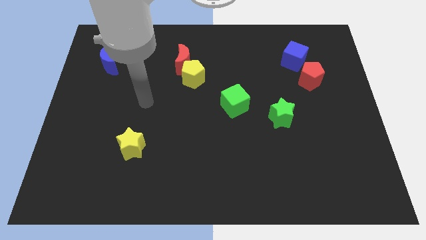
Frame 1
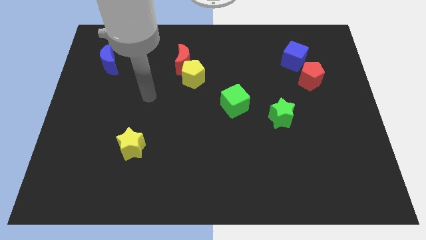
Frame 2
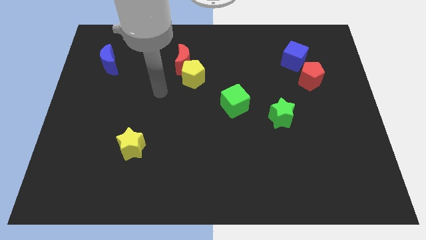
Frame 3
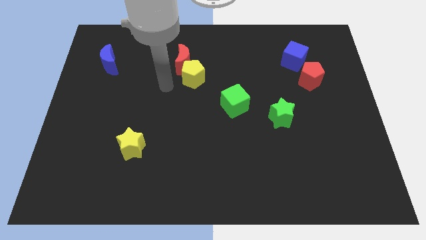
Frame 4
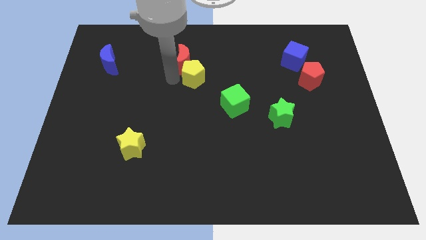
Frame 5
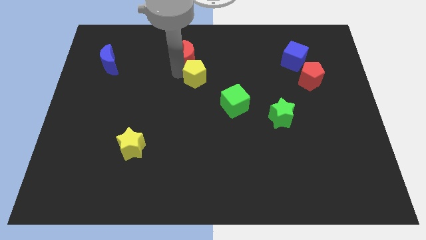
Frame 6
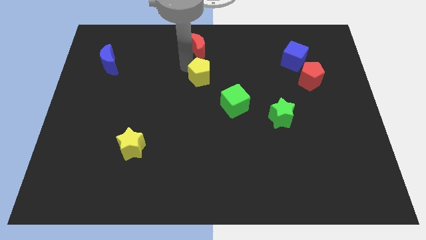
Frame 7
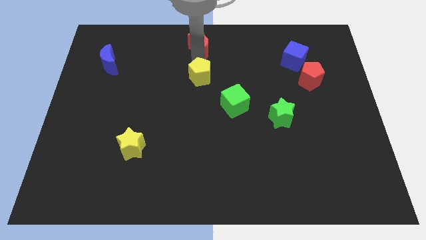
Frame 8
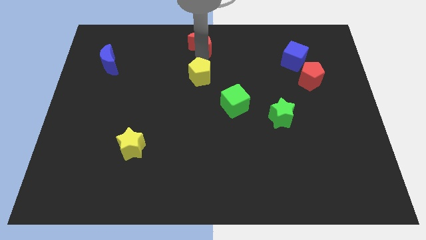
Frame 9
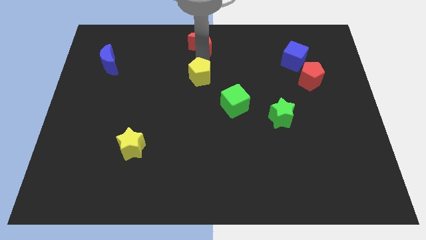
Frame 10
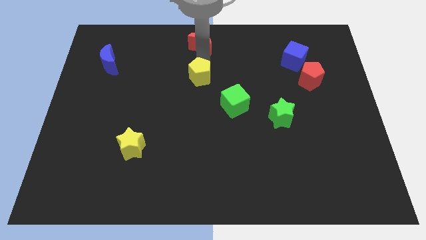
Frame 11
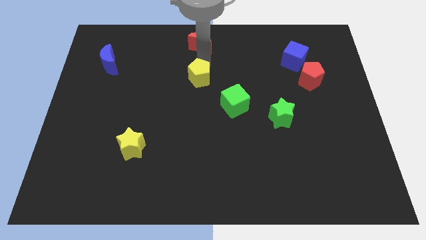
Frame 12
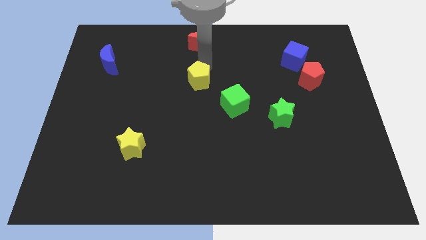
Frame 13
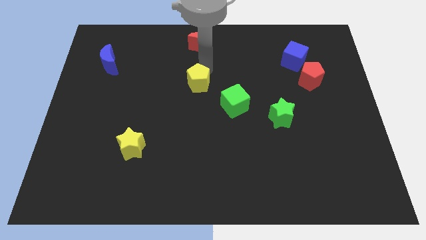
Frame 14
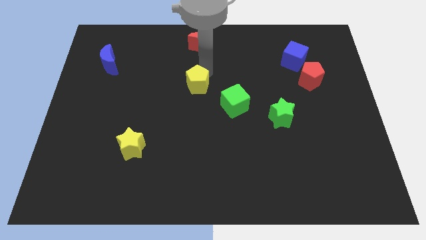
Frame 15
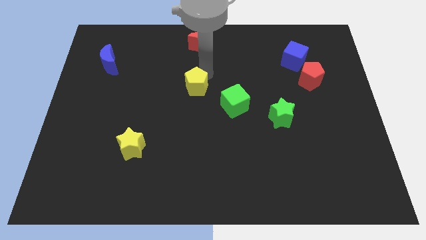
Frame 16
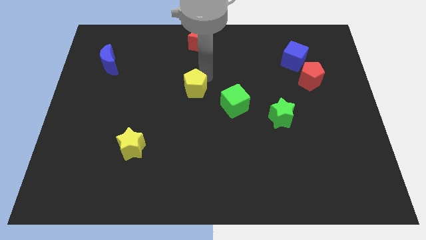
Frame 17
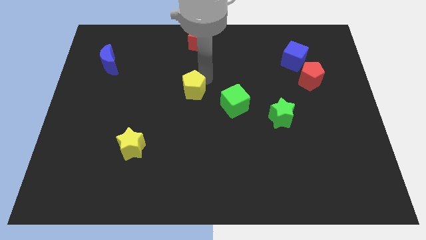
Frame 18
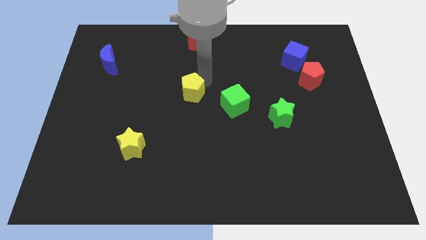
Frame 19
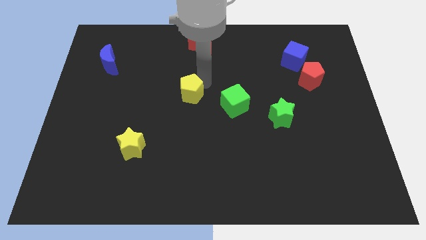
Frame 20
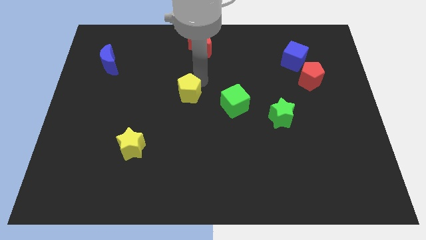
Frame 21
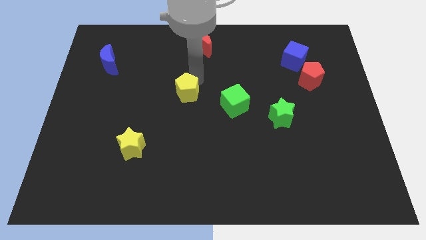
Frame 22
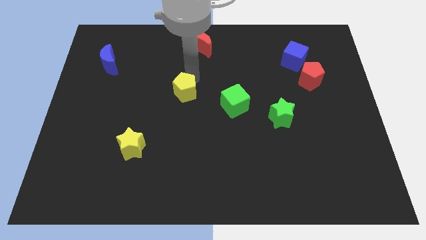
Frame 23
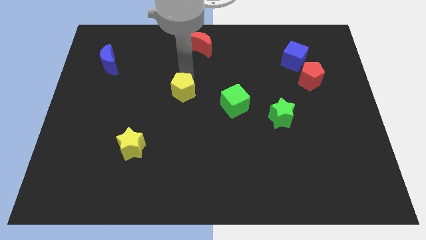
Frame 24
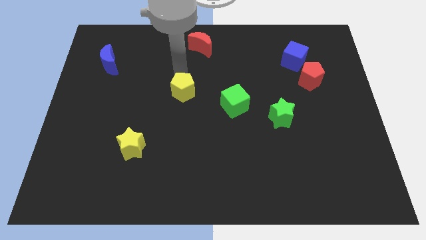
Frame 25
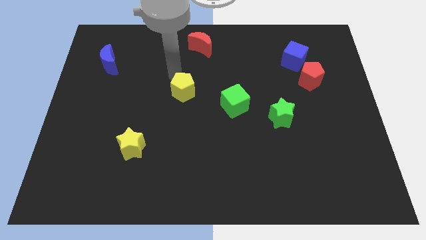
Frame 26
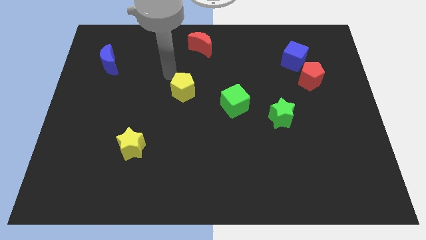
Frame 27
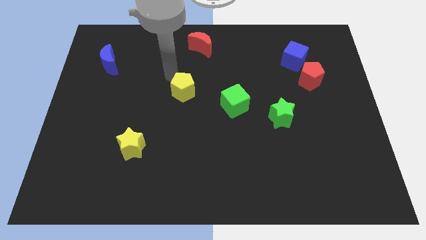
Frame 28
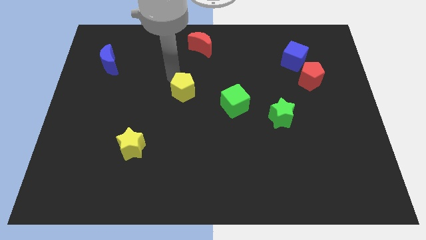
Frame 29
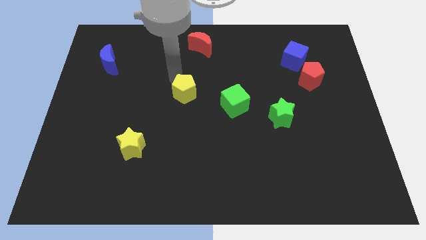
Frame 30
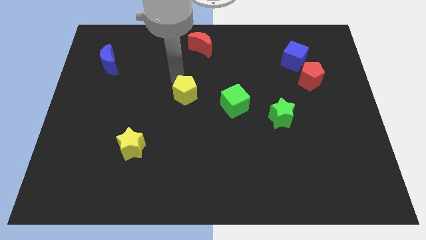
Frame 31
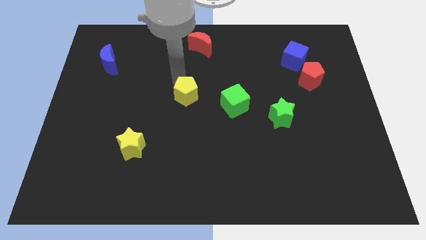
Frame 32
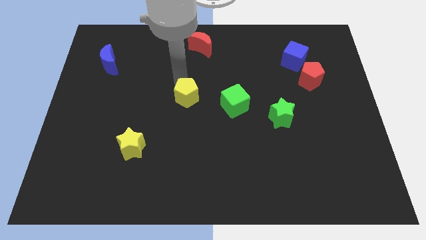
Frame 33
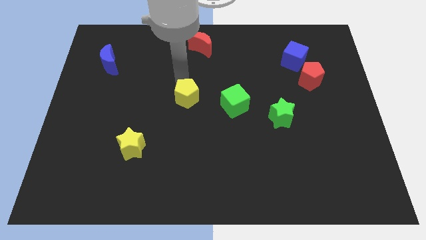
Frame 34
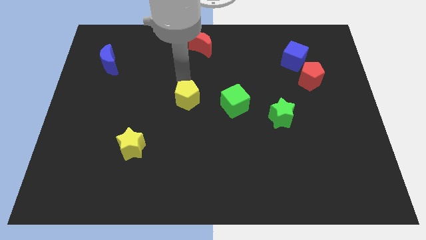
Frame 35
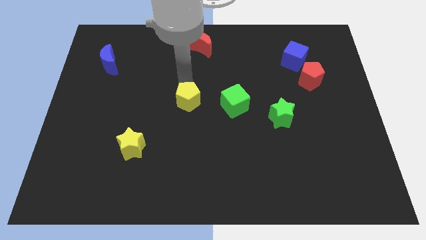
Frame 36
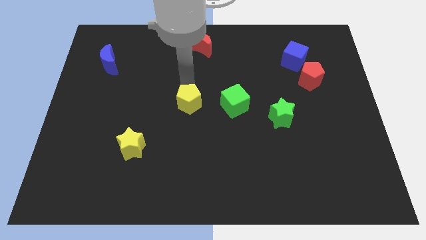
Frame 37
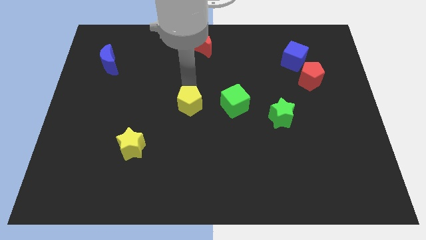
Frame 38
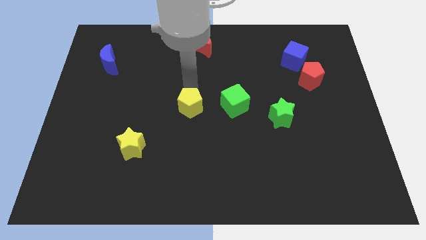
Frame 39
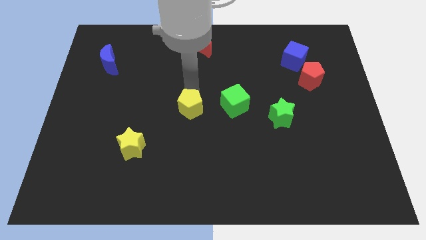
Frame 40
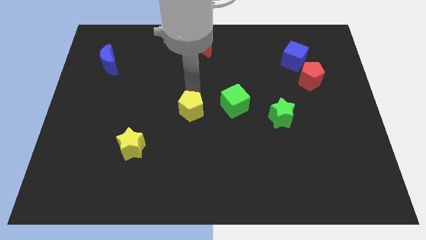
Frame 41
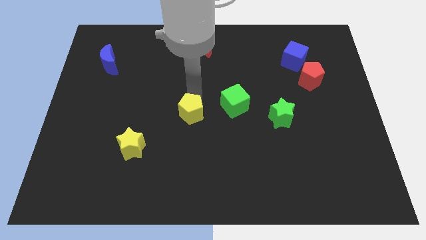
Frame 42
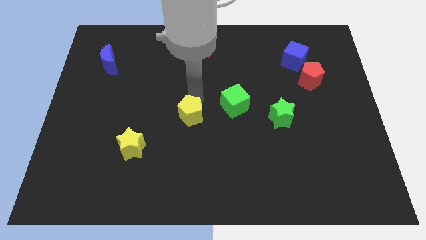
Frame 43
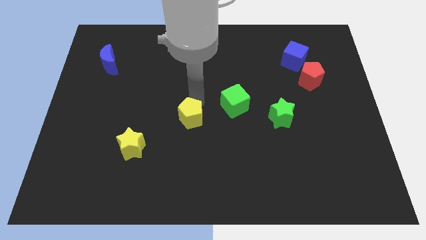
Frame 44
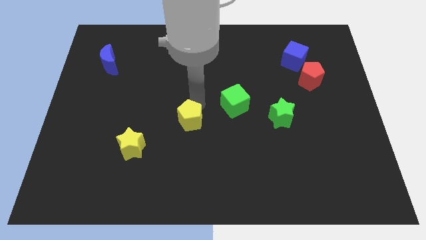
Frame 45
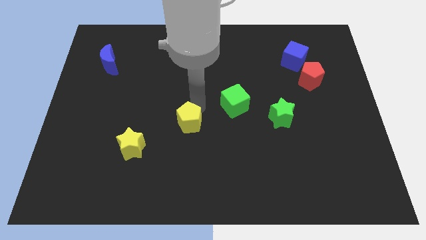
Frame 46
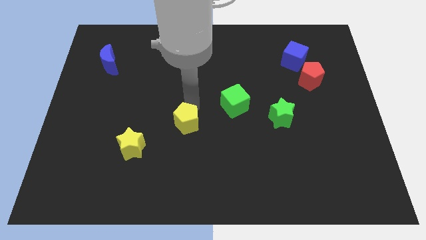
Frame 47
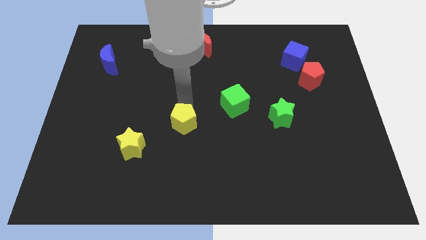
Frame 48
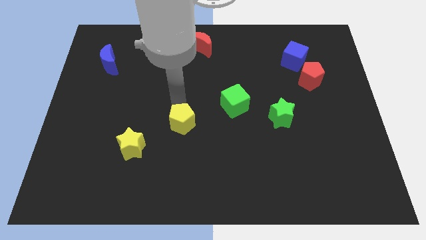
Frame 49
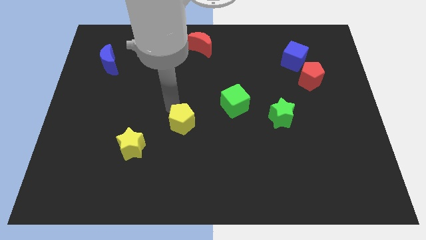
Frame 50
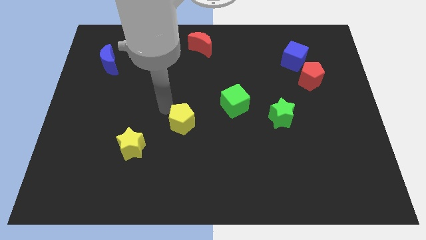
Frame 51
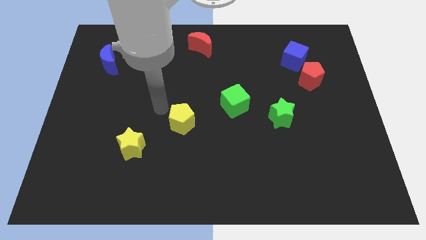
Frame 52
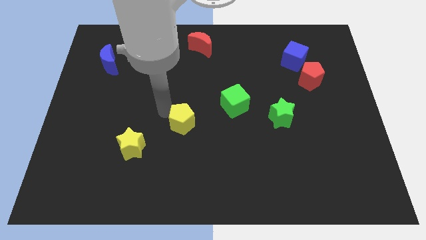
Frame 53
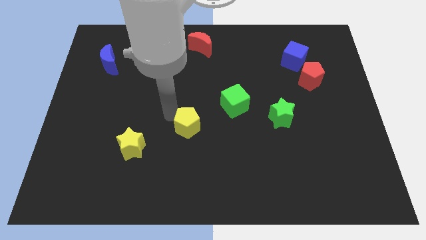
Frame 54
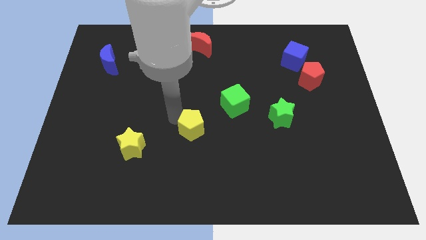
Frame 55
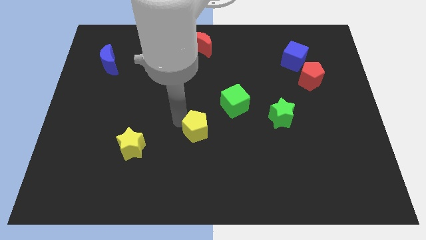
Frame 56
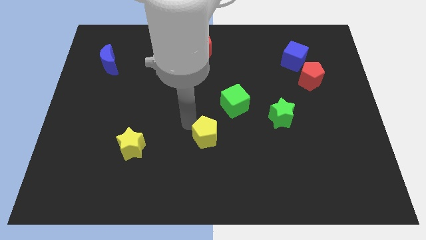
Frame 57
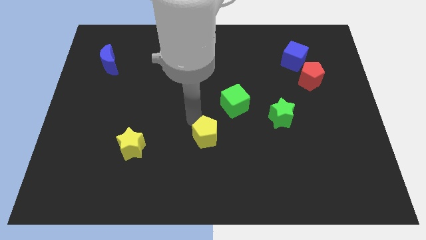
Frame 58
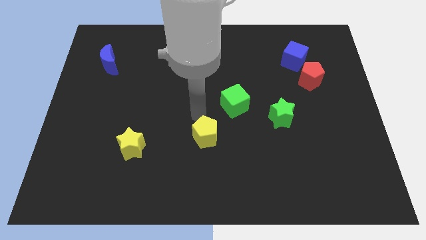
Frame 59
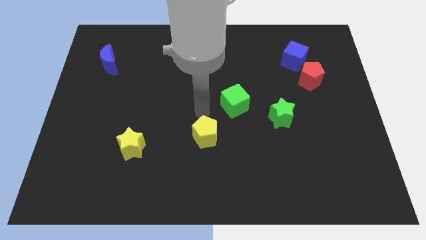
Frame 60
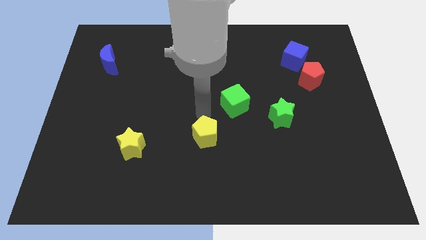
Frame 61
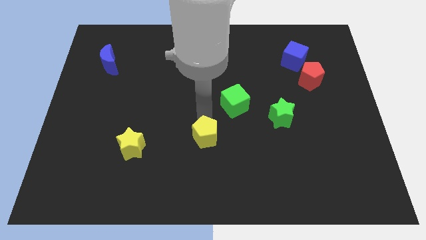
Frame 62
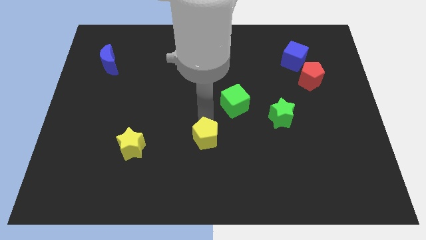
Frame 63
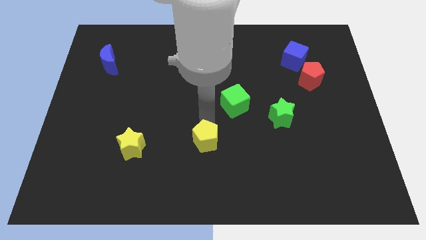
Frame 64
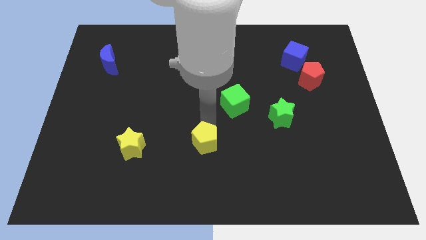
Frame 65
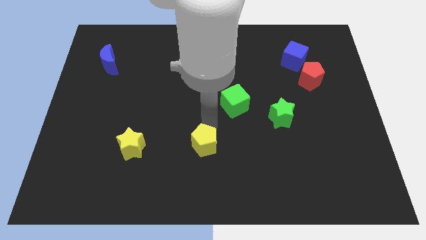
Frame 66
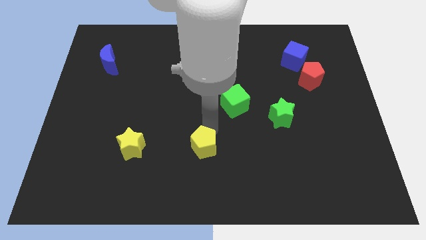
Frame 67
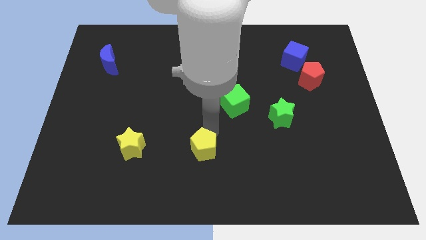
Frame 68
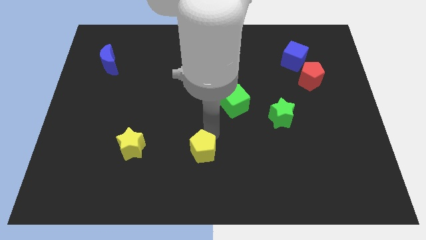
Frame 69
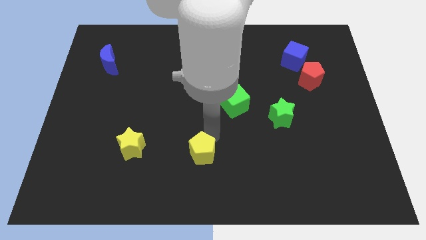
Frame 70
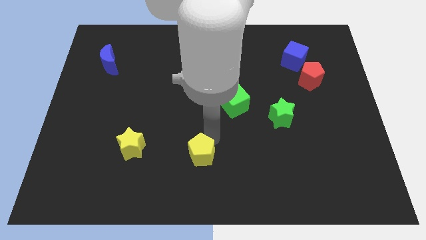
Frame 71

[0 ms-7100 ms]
move the yellow pentagon to the bottom
